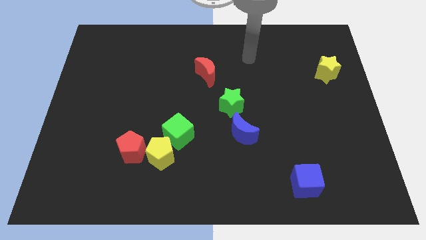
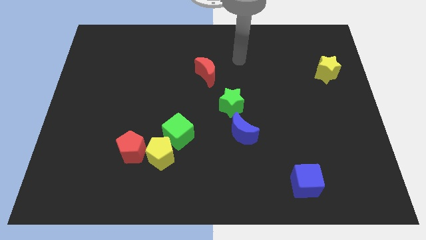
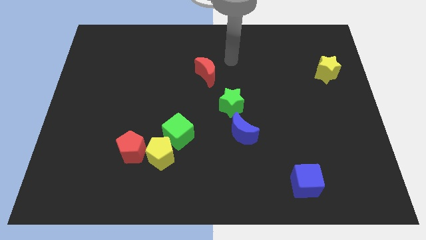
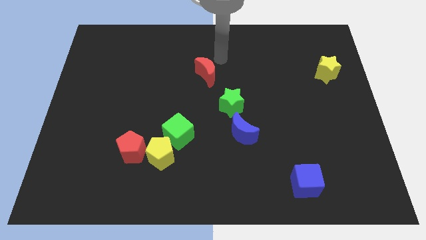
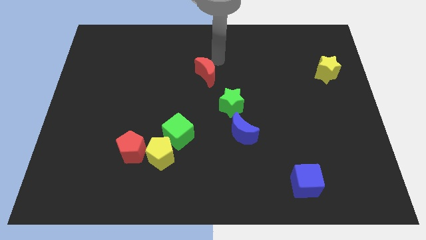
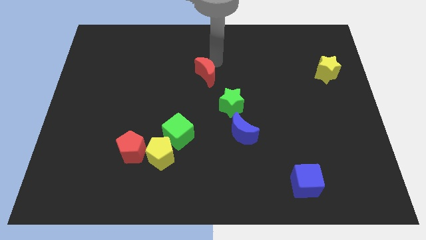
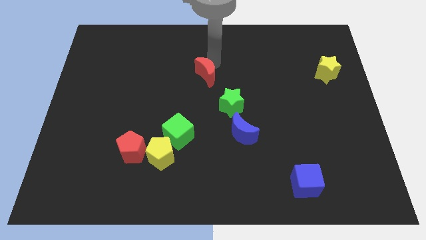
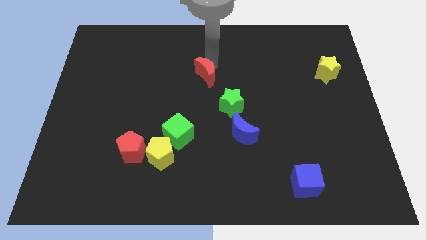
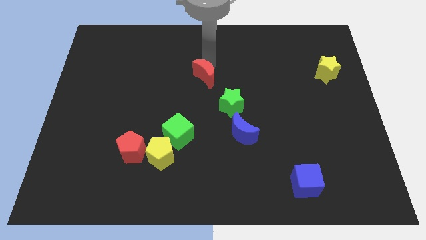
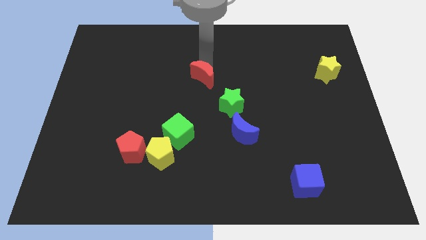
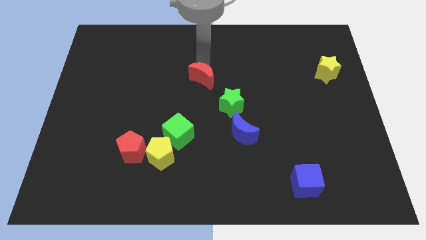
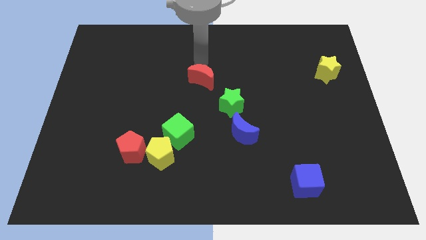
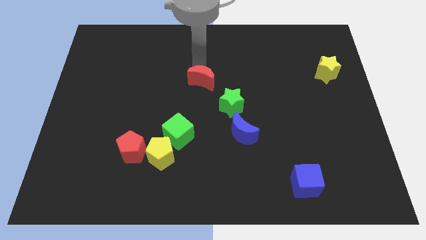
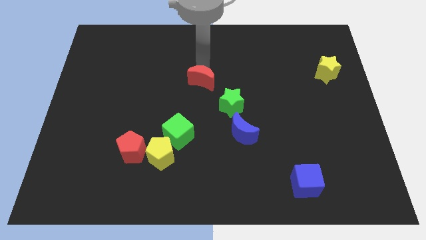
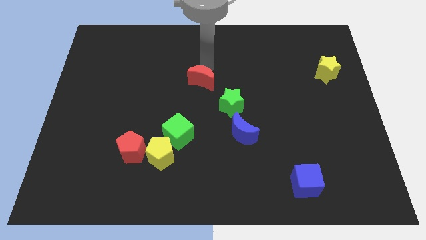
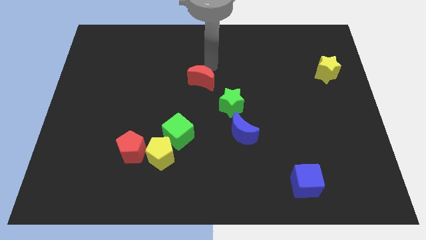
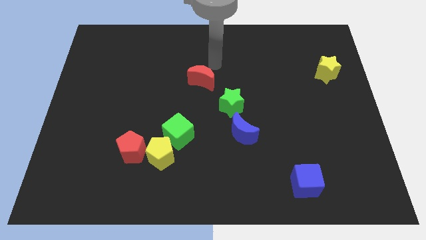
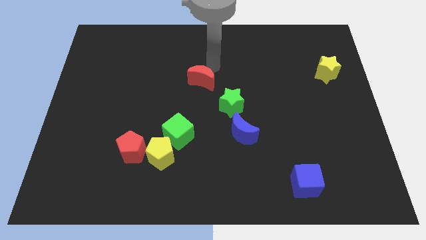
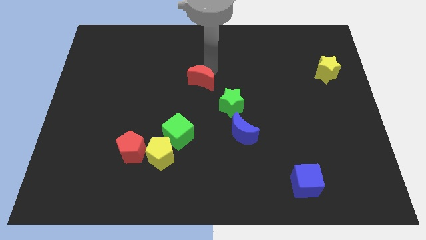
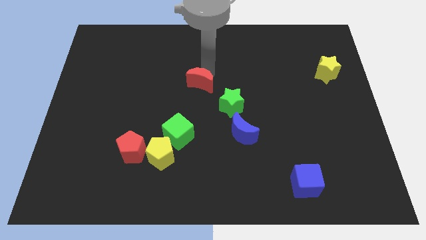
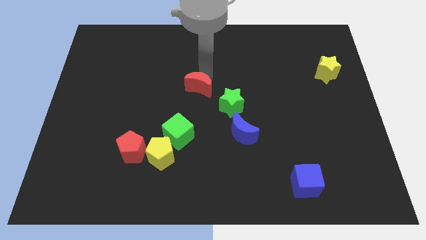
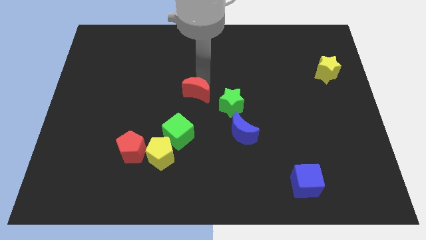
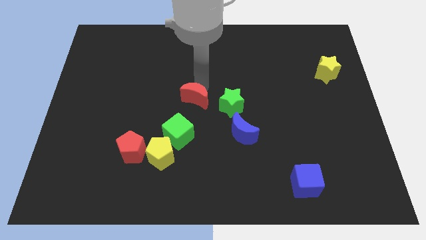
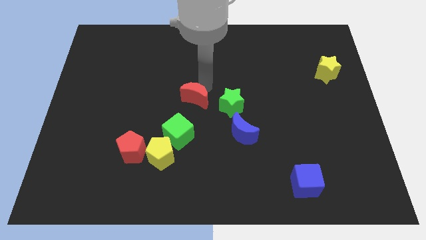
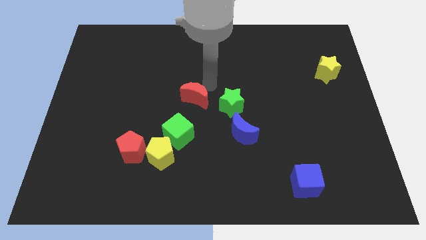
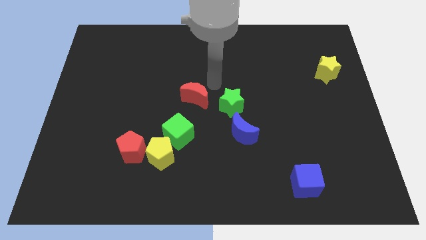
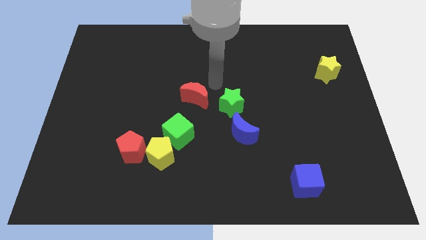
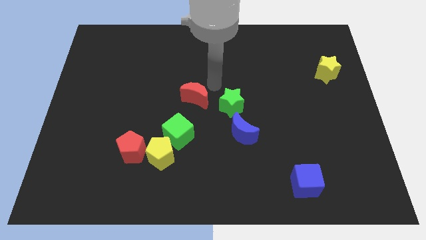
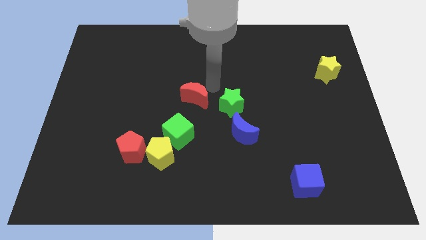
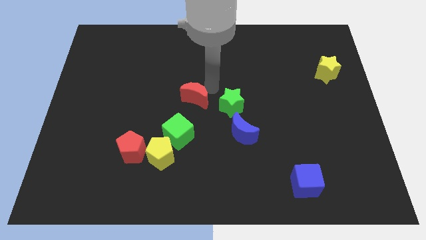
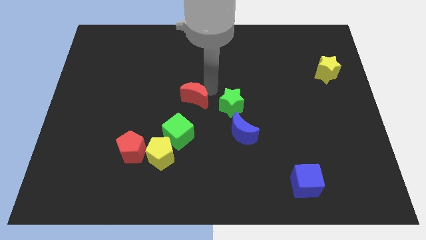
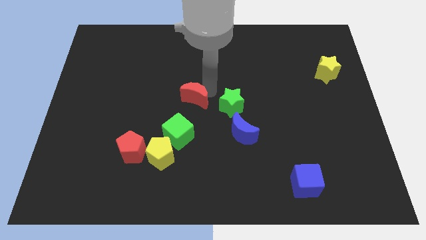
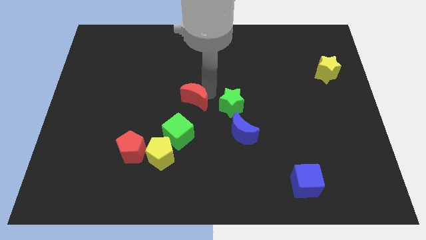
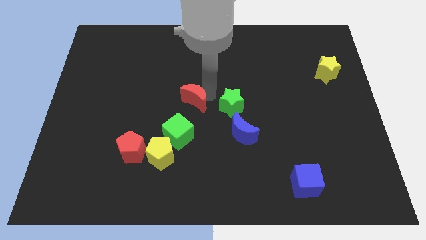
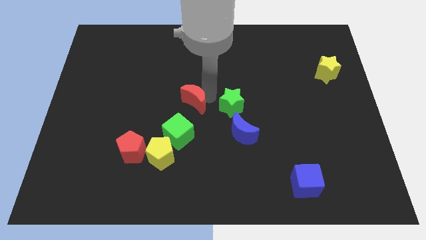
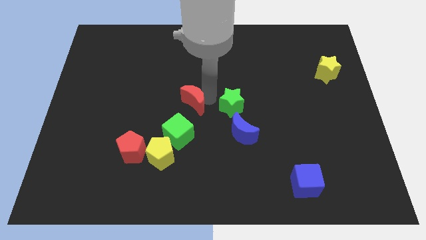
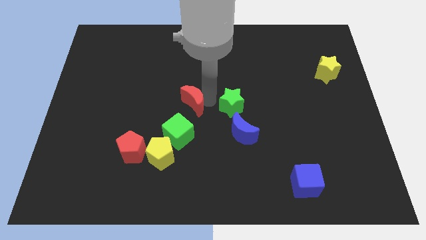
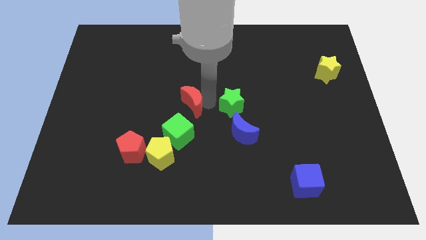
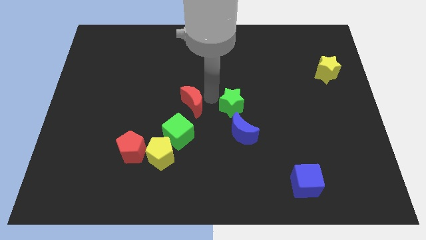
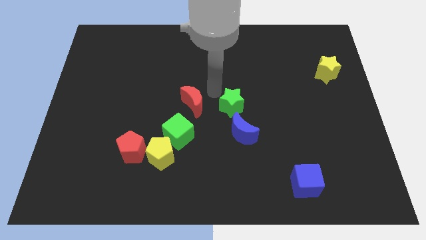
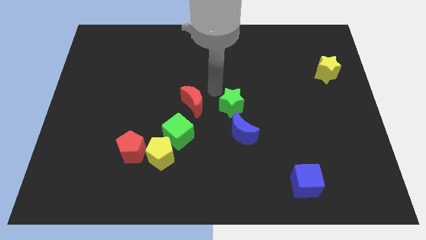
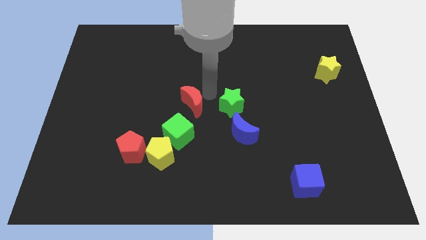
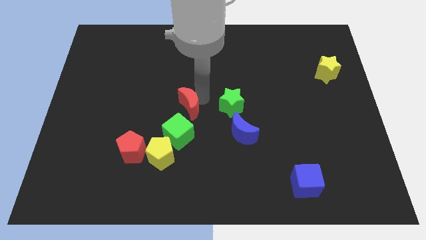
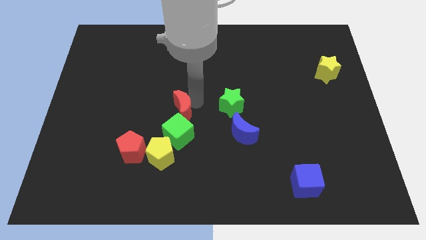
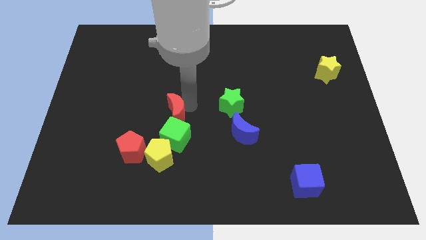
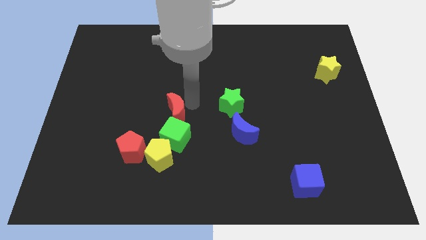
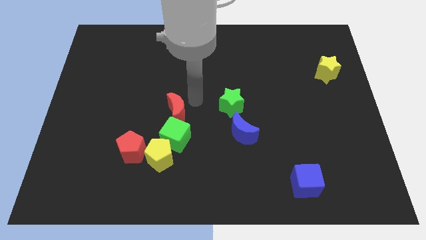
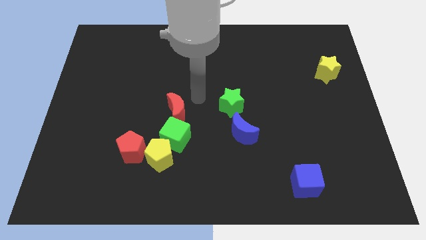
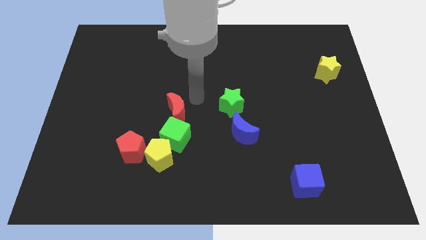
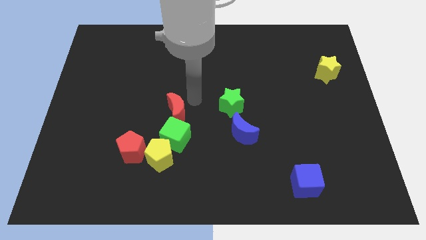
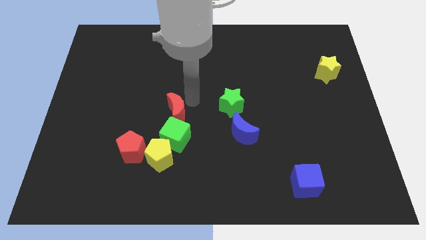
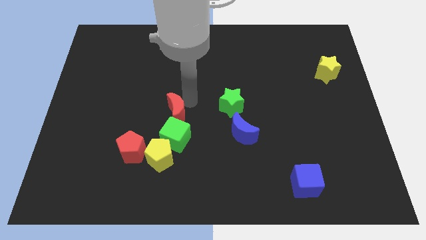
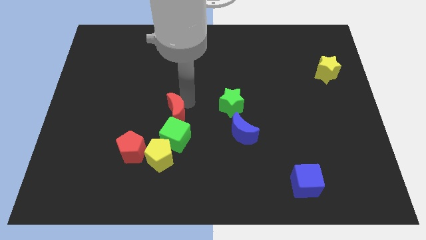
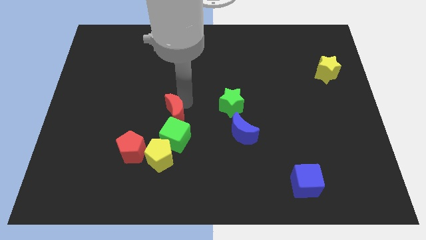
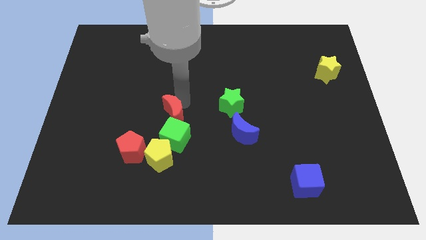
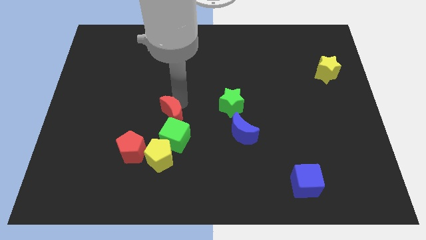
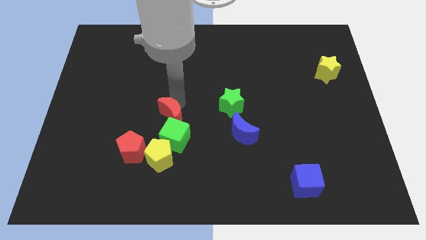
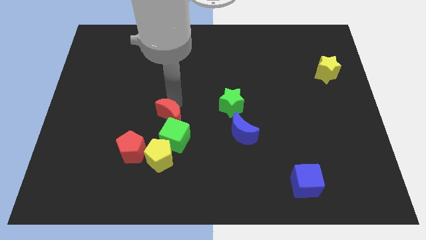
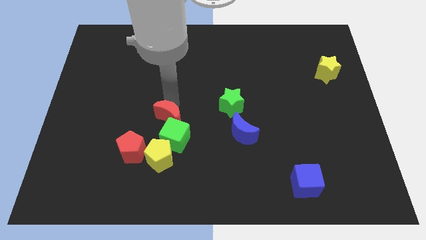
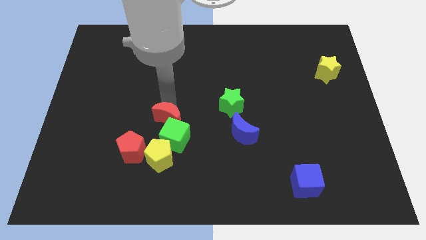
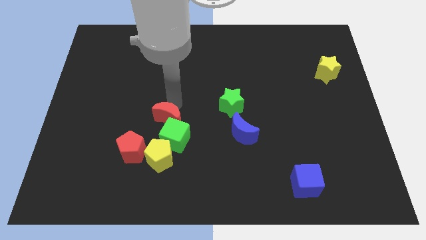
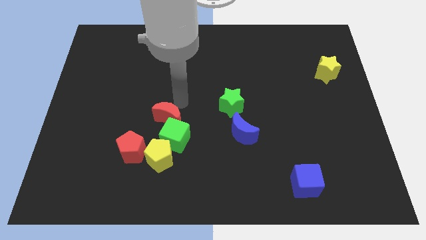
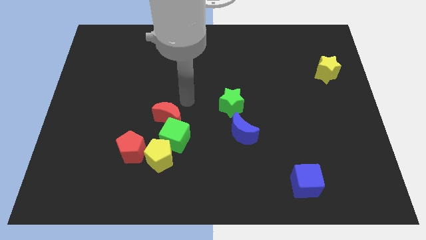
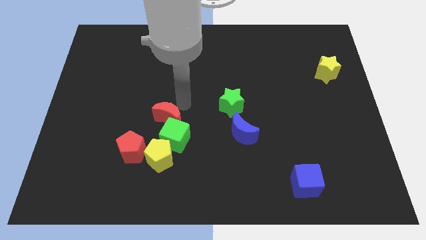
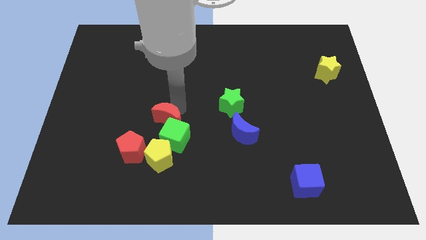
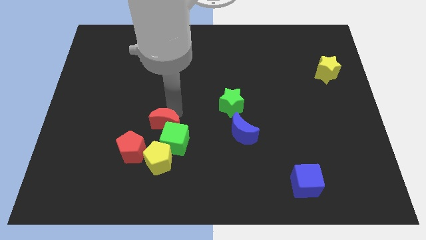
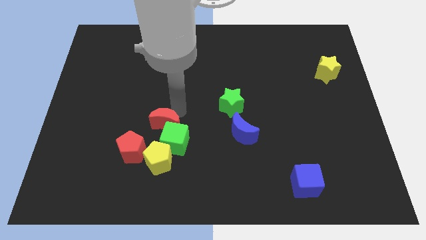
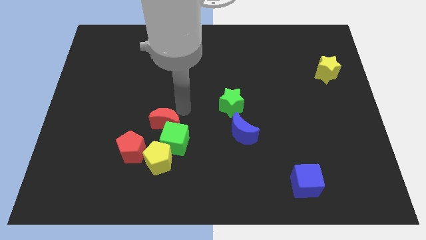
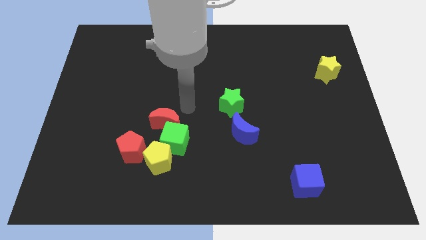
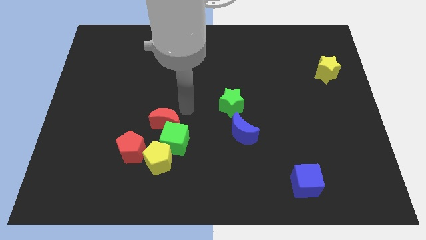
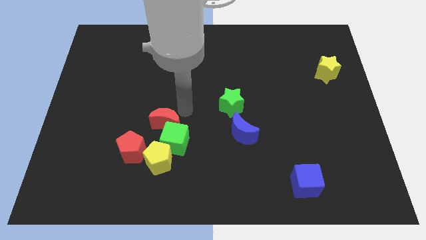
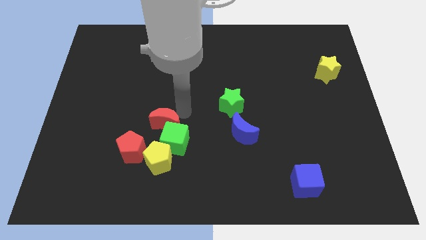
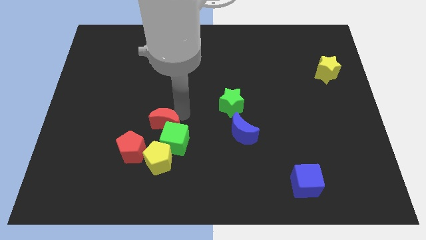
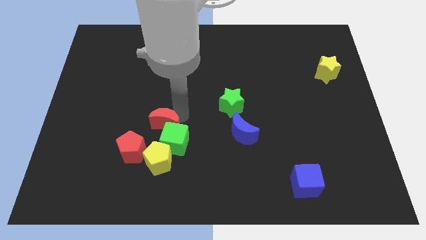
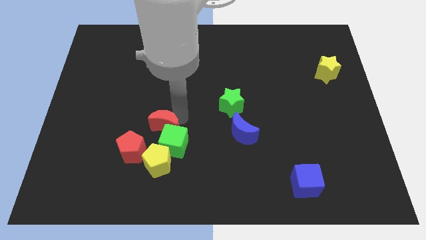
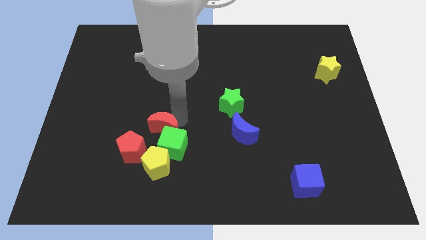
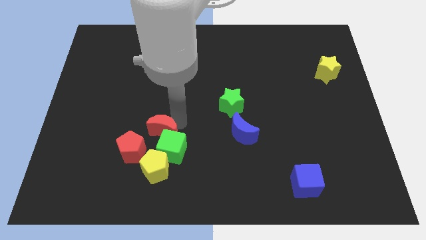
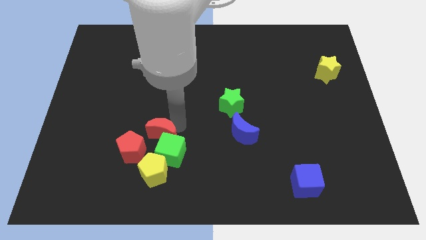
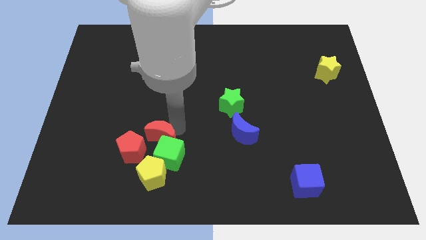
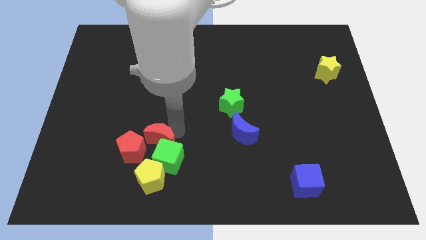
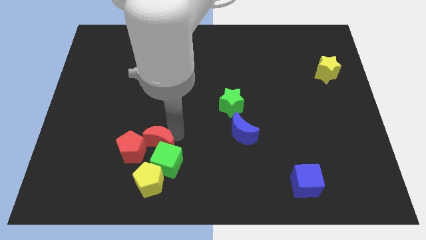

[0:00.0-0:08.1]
move the red moon close to the red pentagon
